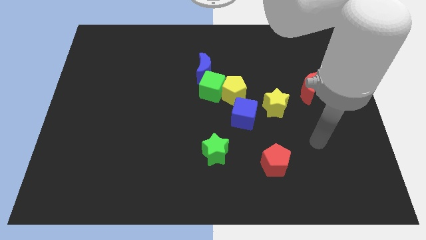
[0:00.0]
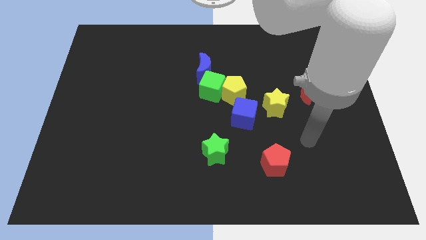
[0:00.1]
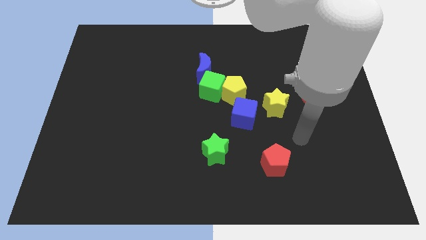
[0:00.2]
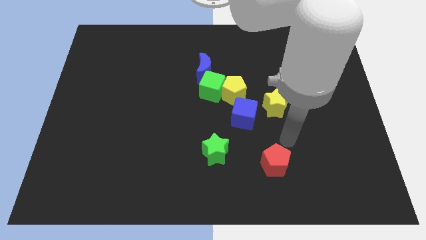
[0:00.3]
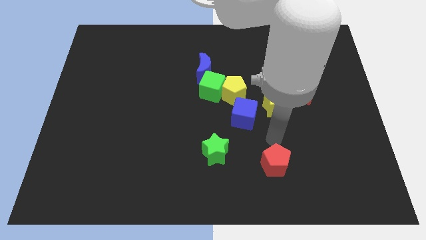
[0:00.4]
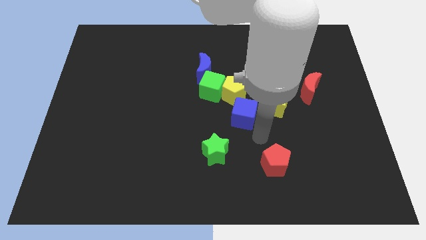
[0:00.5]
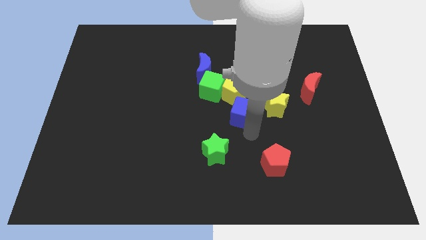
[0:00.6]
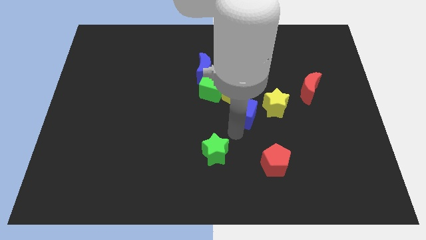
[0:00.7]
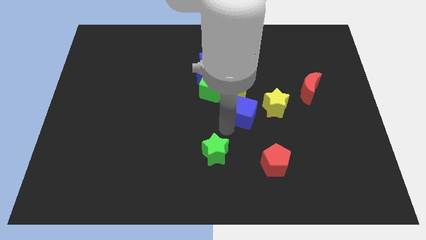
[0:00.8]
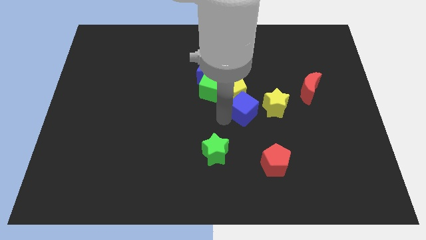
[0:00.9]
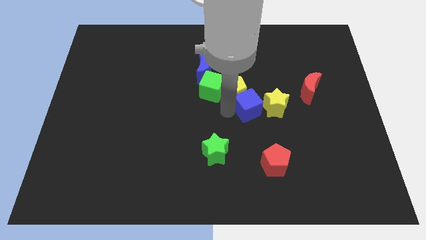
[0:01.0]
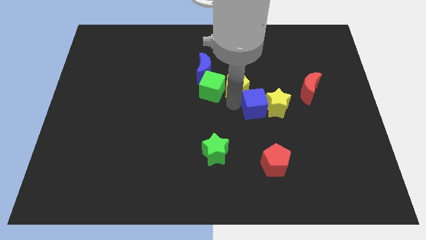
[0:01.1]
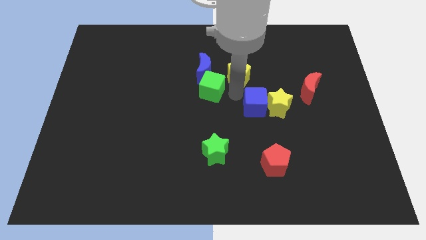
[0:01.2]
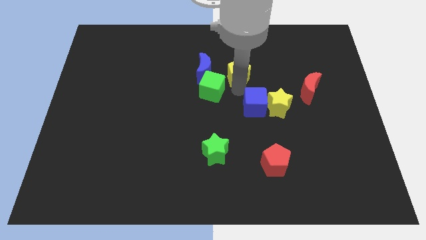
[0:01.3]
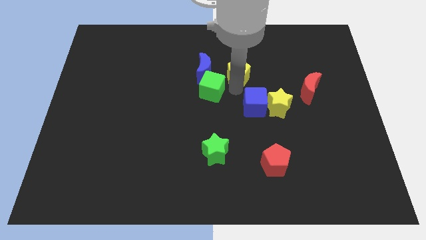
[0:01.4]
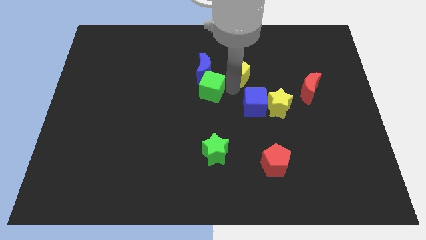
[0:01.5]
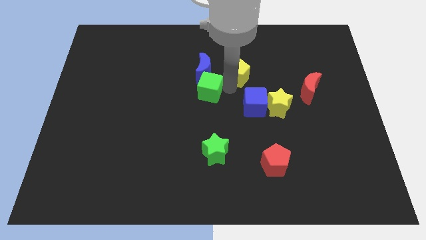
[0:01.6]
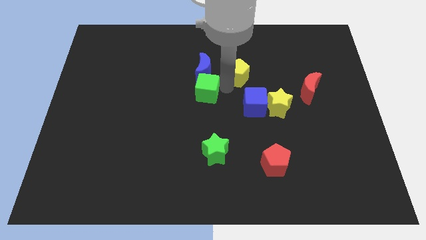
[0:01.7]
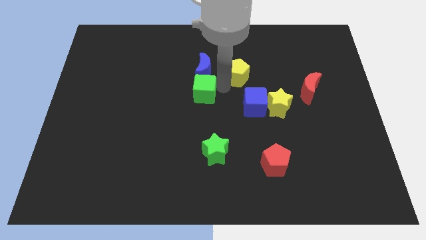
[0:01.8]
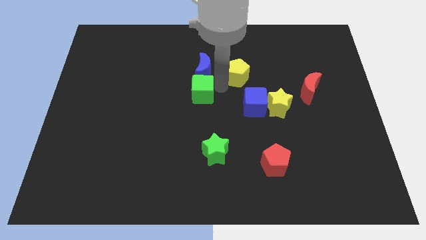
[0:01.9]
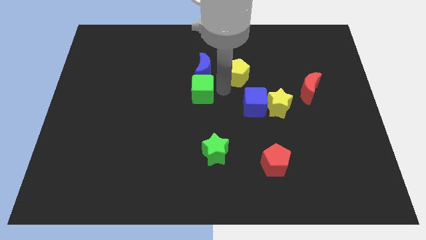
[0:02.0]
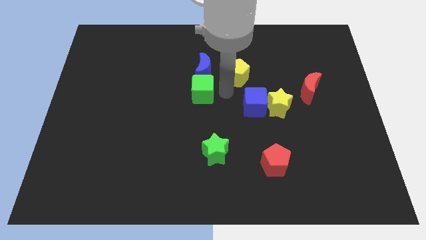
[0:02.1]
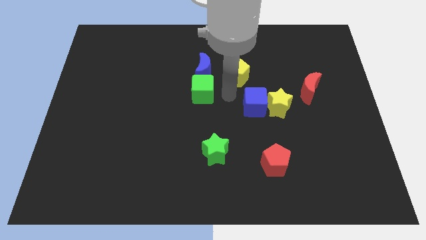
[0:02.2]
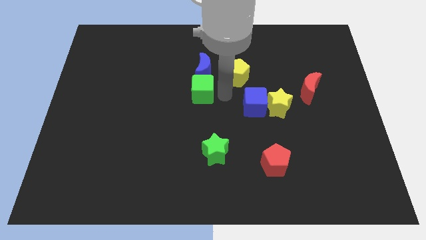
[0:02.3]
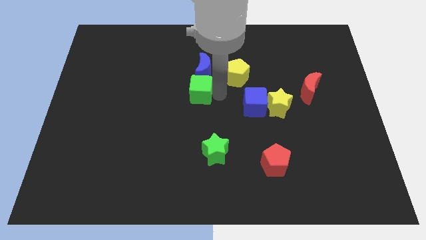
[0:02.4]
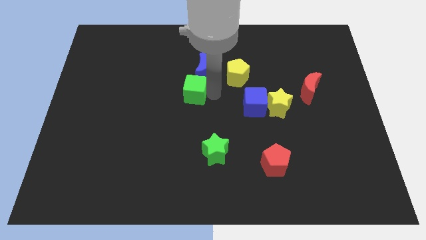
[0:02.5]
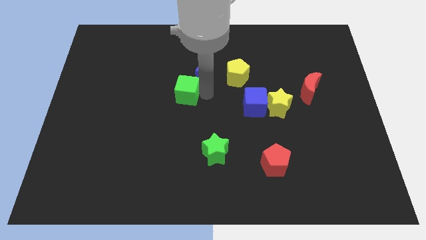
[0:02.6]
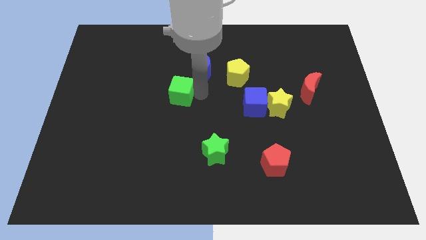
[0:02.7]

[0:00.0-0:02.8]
slide the green cube a little to the left

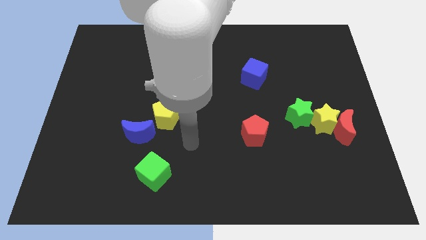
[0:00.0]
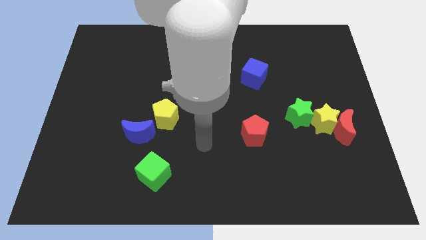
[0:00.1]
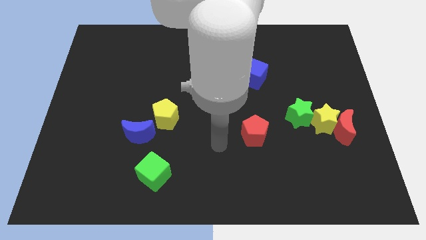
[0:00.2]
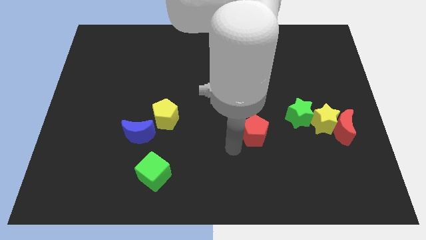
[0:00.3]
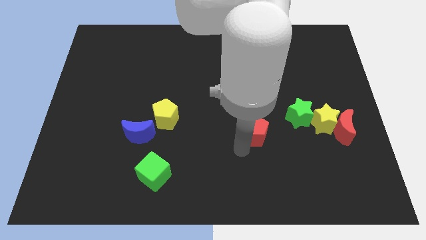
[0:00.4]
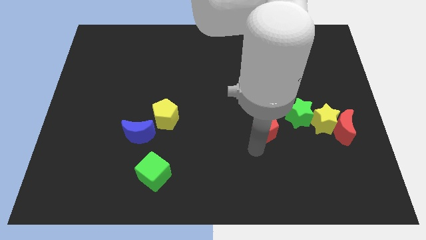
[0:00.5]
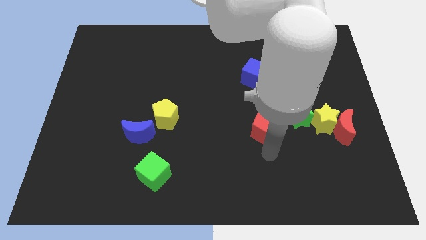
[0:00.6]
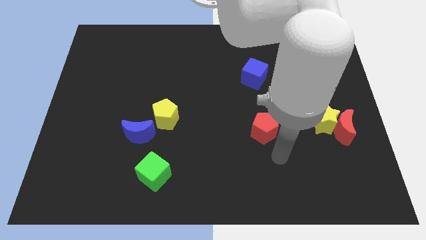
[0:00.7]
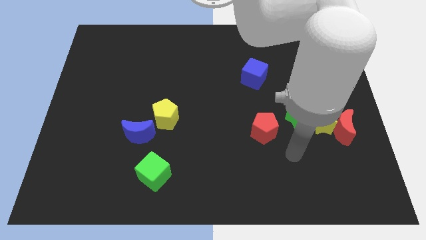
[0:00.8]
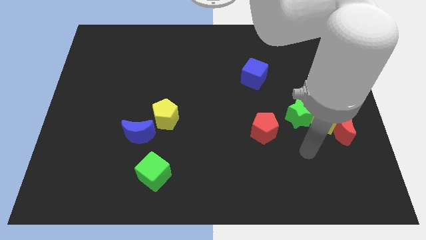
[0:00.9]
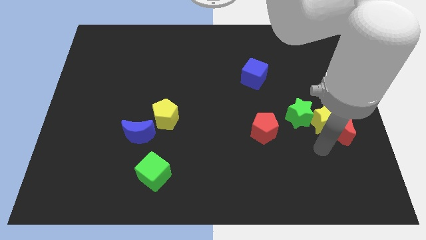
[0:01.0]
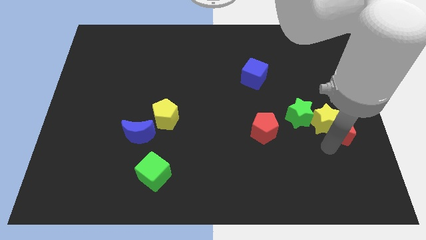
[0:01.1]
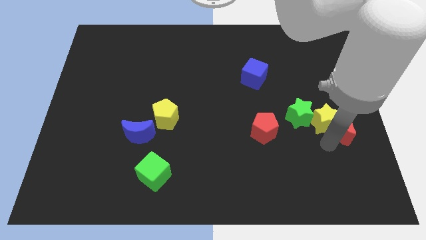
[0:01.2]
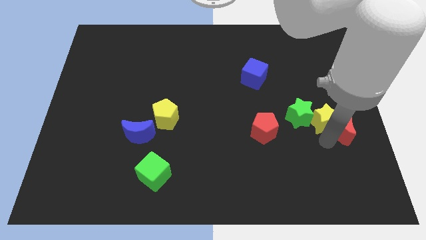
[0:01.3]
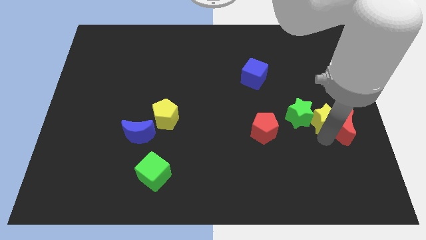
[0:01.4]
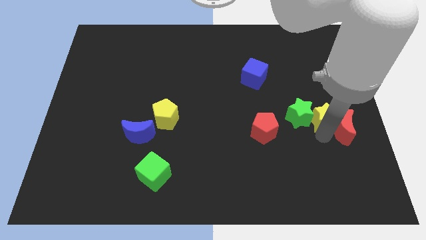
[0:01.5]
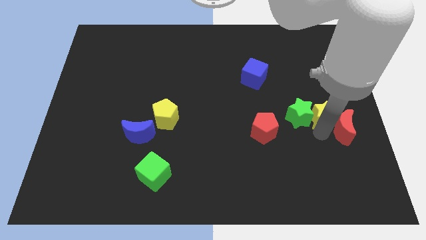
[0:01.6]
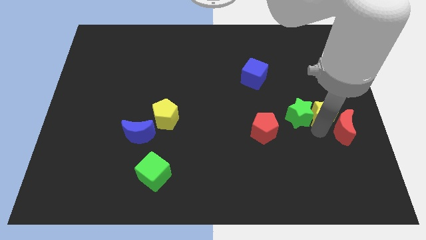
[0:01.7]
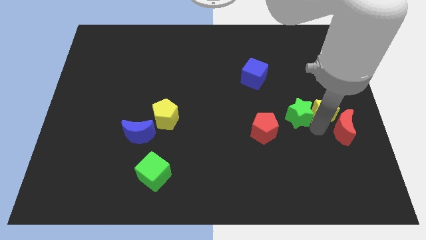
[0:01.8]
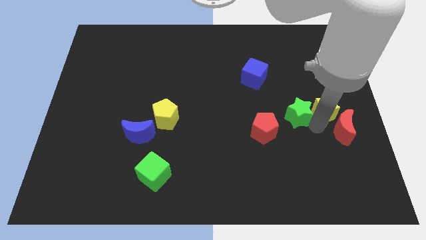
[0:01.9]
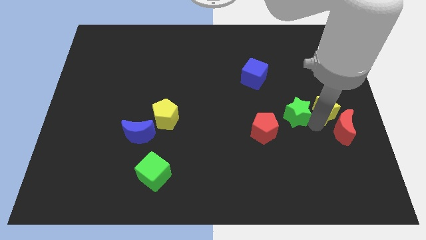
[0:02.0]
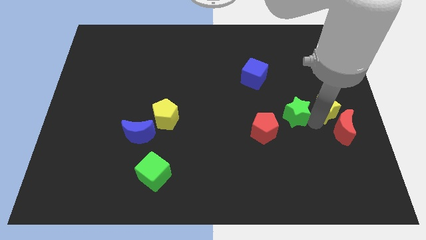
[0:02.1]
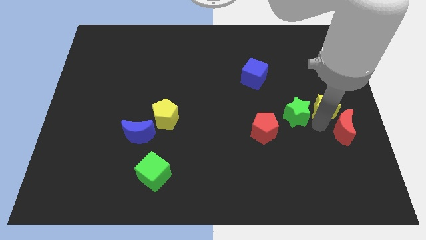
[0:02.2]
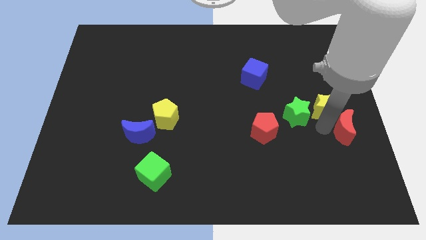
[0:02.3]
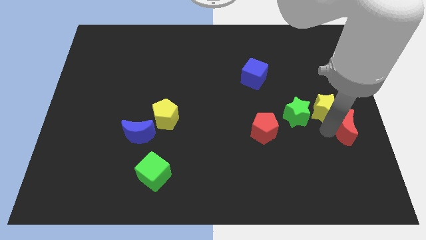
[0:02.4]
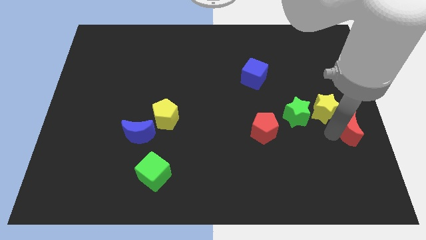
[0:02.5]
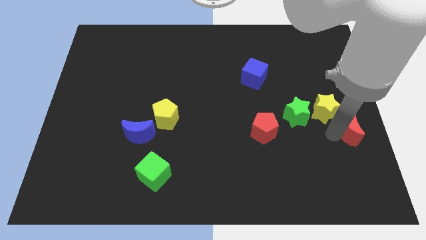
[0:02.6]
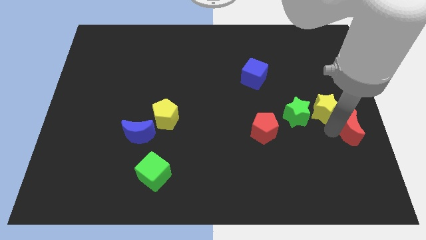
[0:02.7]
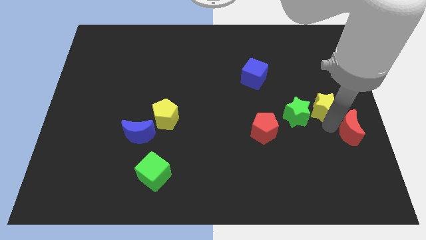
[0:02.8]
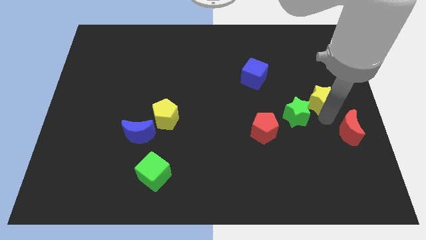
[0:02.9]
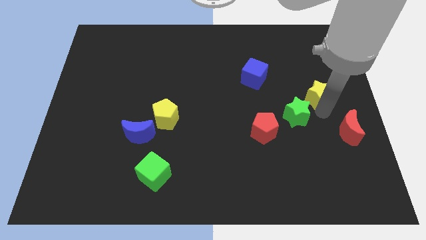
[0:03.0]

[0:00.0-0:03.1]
move the yellow star up a bit

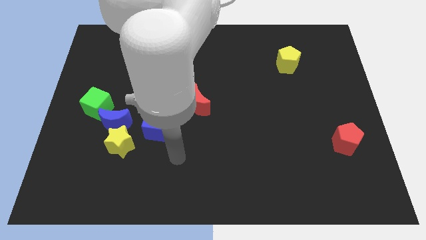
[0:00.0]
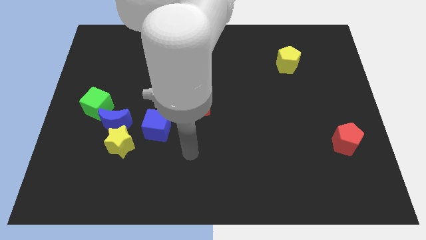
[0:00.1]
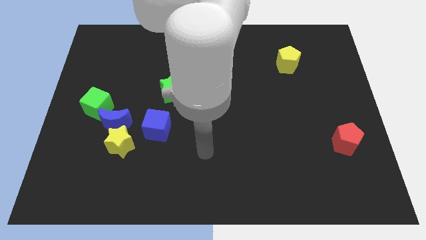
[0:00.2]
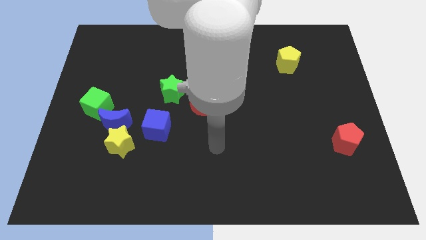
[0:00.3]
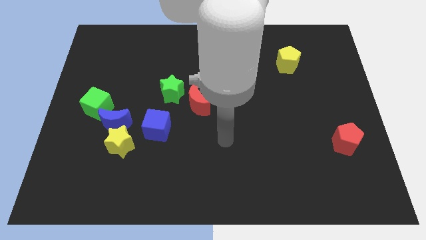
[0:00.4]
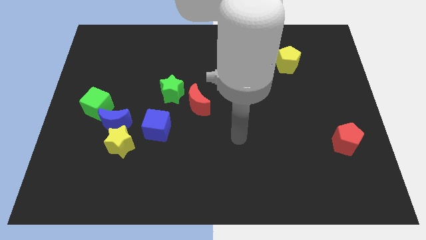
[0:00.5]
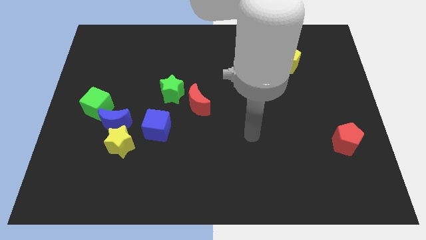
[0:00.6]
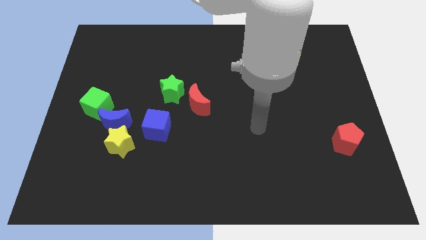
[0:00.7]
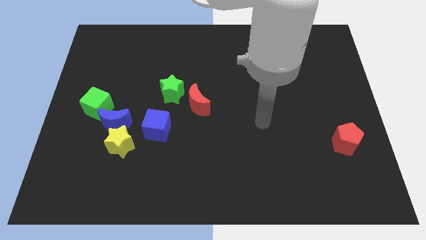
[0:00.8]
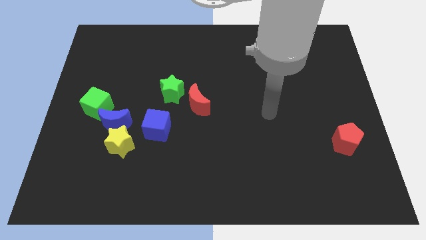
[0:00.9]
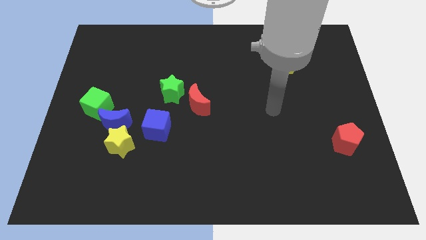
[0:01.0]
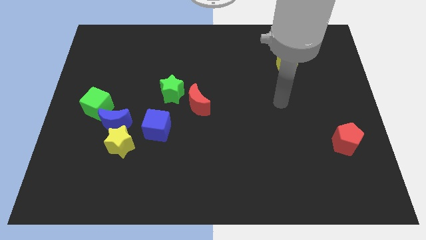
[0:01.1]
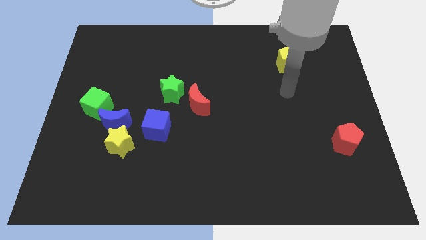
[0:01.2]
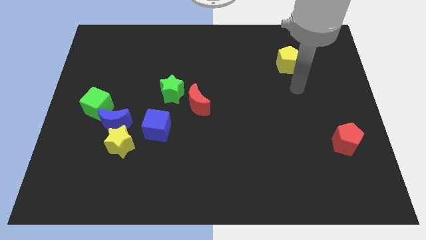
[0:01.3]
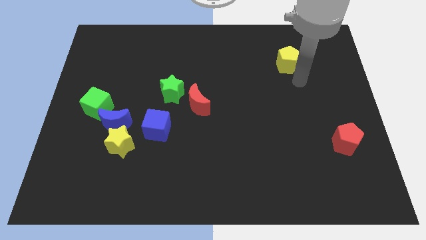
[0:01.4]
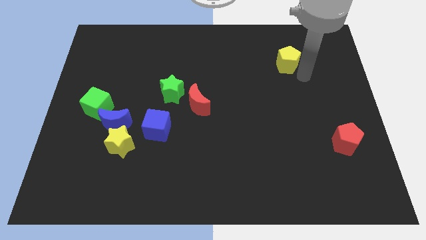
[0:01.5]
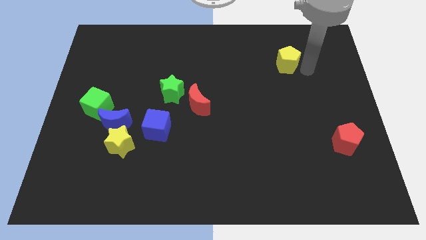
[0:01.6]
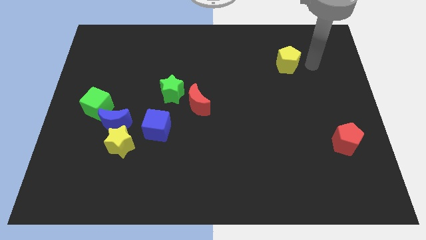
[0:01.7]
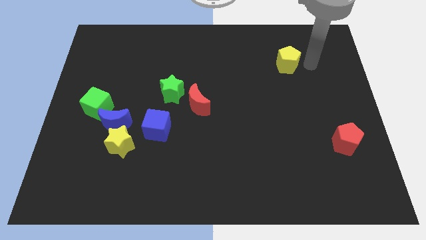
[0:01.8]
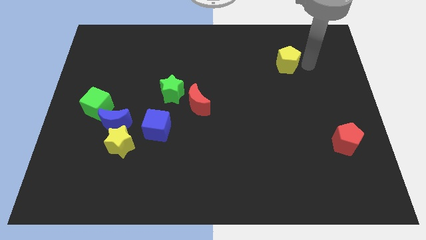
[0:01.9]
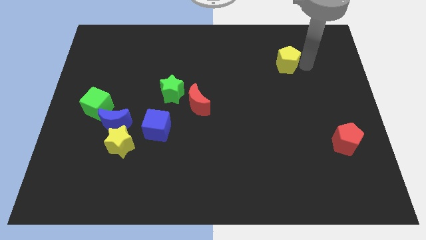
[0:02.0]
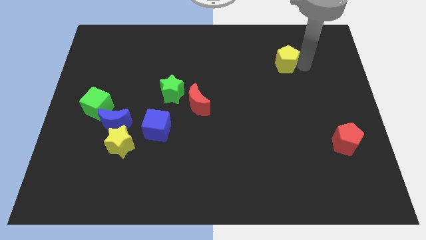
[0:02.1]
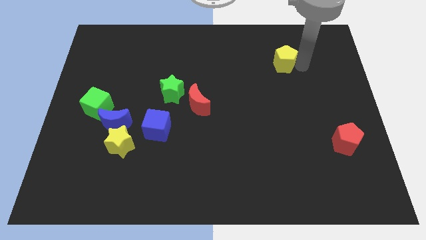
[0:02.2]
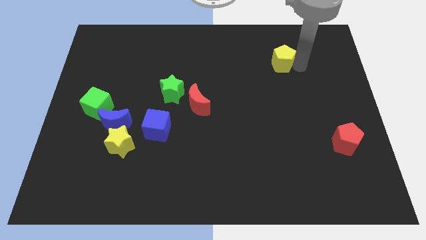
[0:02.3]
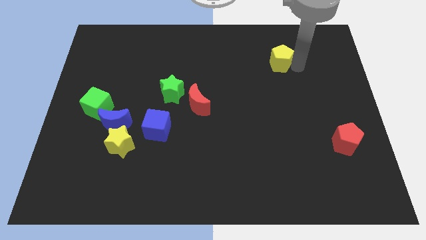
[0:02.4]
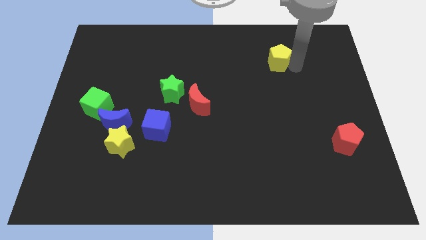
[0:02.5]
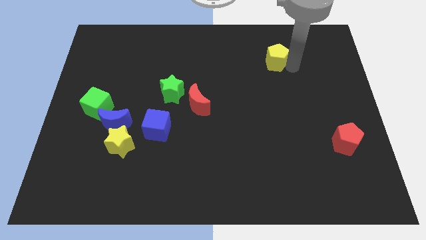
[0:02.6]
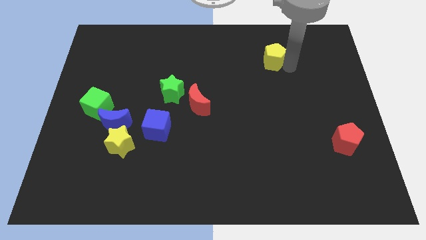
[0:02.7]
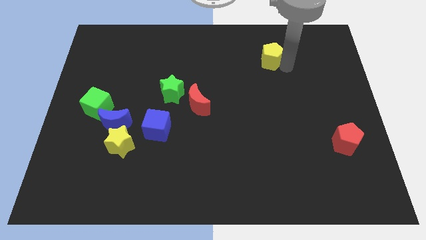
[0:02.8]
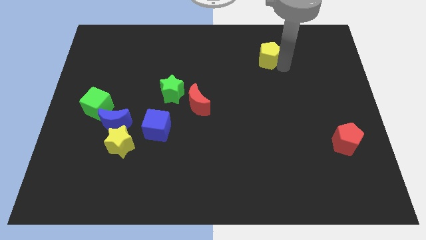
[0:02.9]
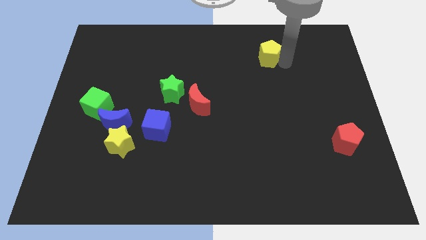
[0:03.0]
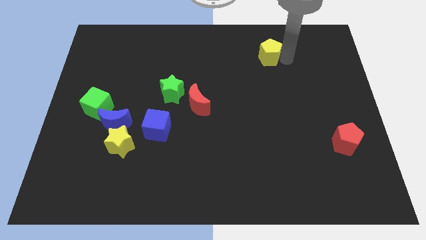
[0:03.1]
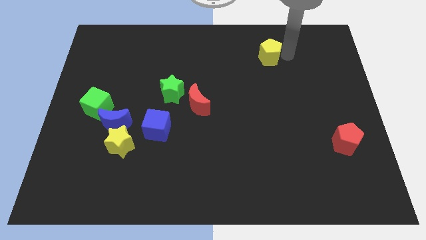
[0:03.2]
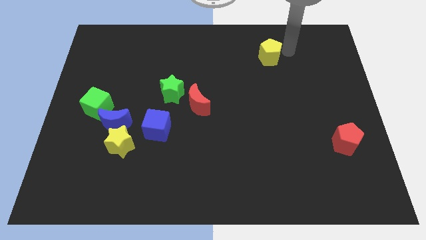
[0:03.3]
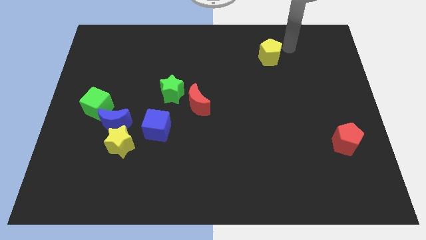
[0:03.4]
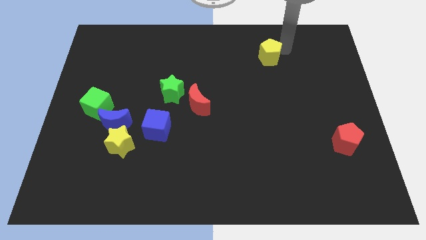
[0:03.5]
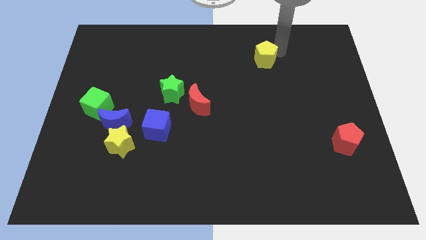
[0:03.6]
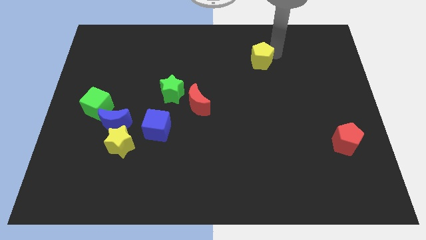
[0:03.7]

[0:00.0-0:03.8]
move the yellow pentagon to the left somewhat
